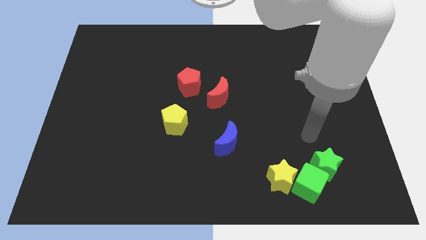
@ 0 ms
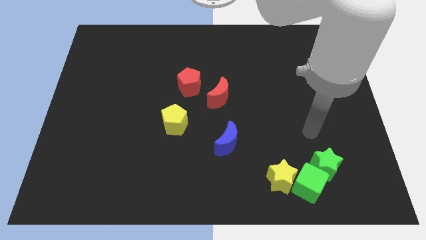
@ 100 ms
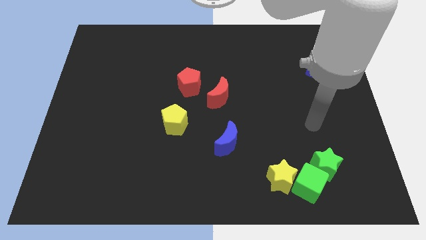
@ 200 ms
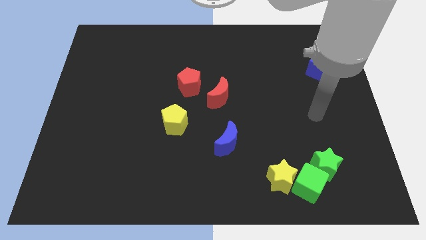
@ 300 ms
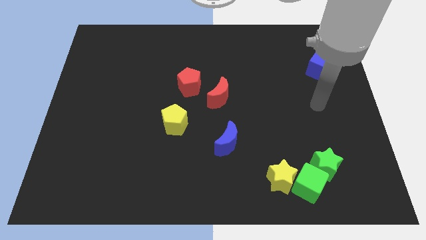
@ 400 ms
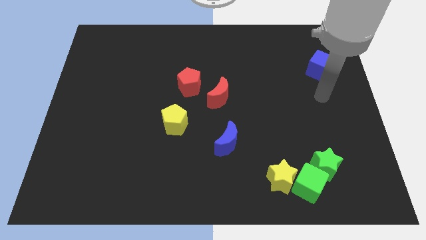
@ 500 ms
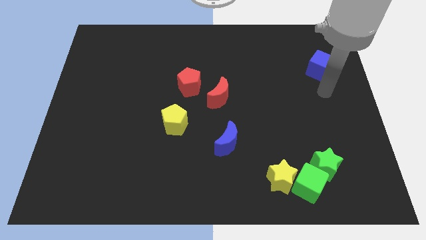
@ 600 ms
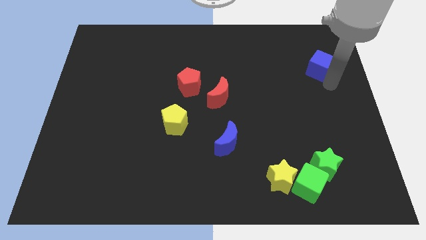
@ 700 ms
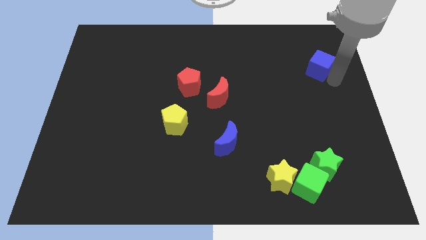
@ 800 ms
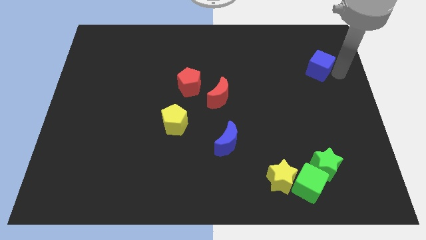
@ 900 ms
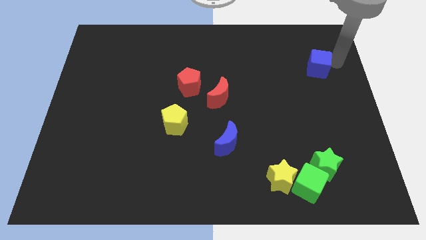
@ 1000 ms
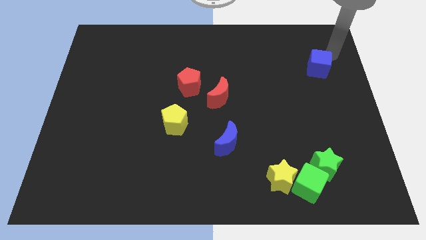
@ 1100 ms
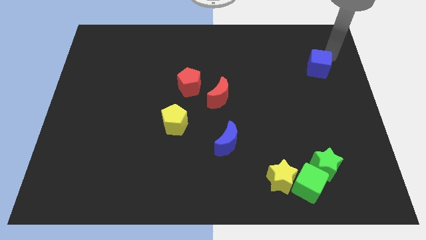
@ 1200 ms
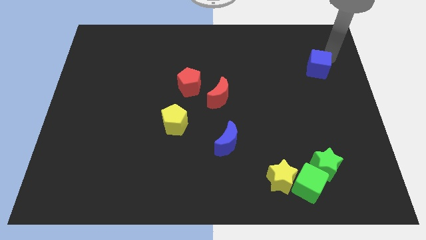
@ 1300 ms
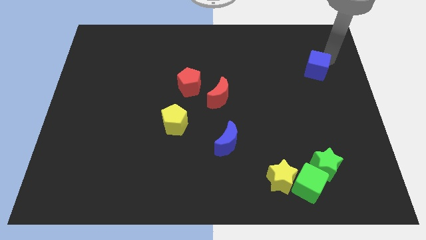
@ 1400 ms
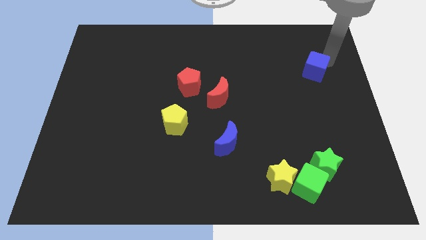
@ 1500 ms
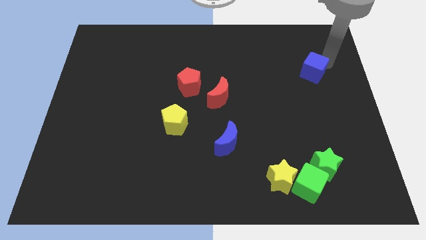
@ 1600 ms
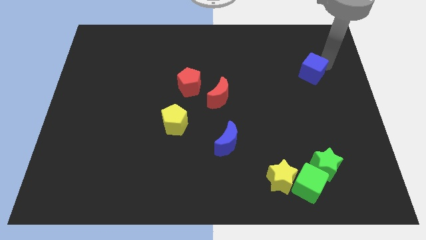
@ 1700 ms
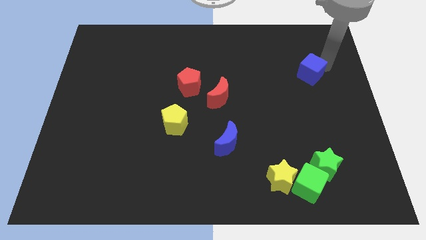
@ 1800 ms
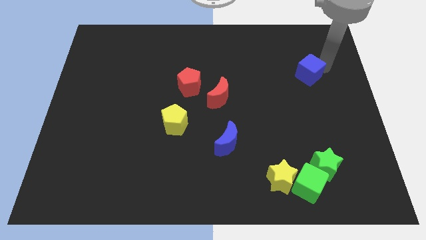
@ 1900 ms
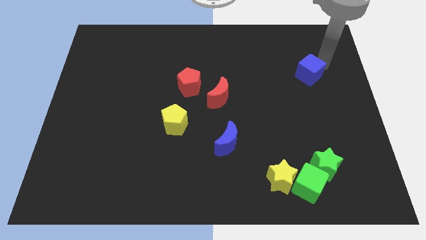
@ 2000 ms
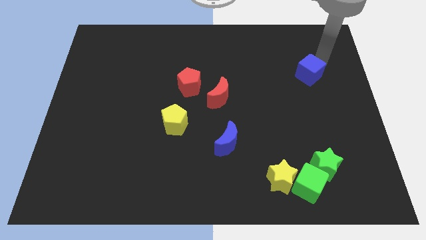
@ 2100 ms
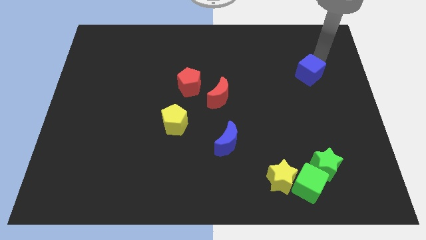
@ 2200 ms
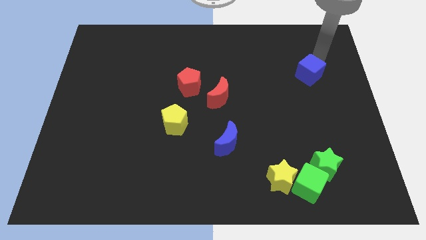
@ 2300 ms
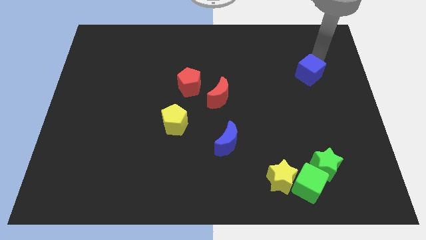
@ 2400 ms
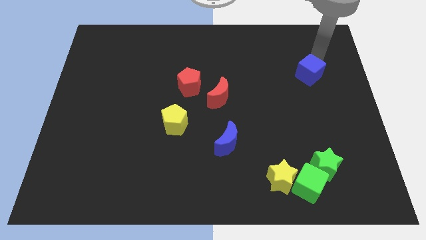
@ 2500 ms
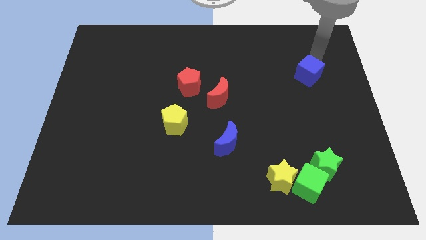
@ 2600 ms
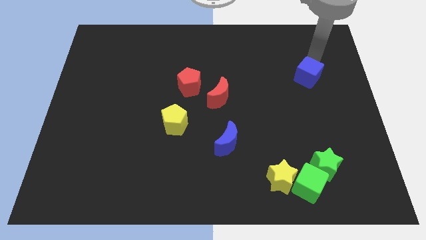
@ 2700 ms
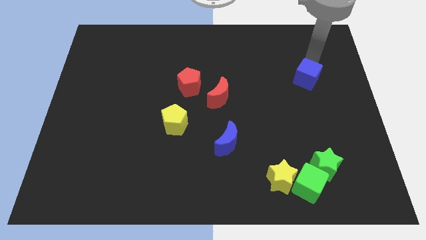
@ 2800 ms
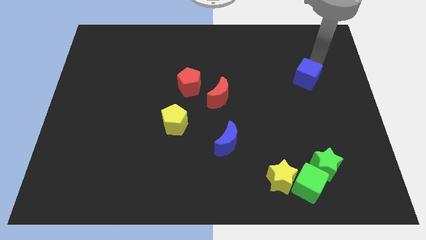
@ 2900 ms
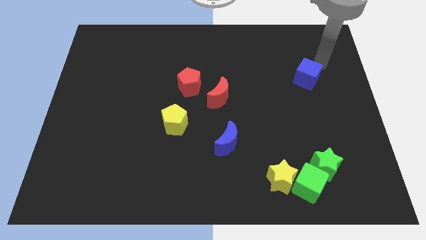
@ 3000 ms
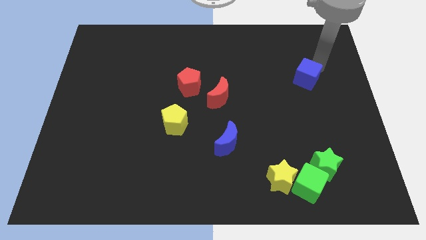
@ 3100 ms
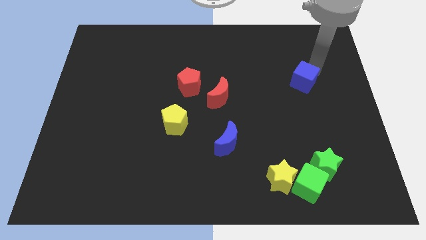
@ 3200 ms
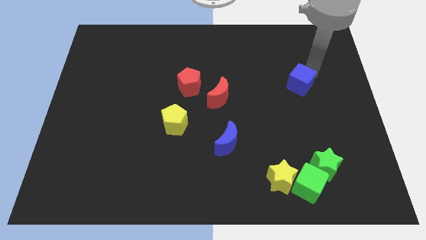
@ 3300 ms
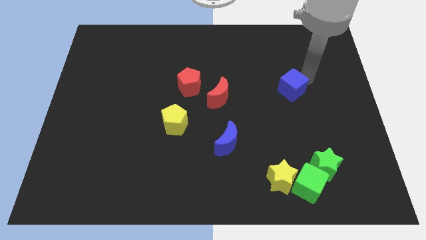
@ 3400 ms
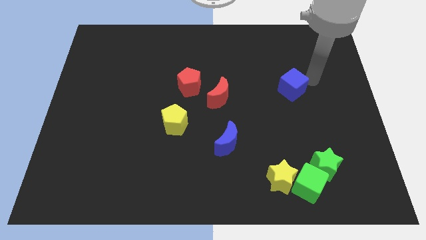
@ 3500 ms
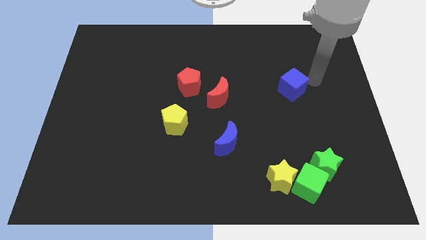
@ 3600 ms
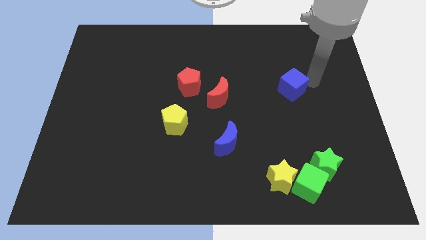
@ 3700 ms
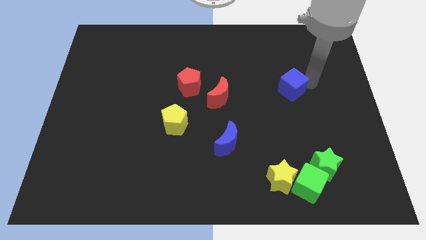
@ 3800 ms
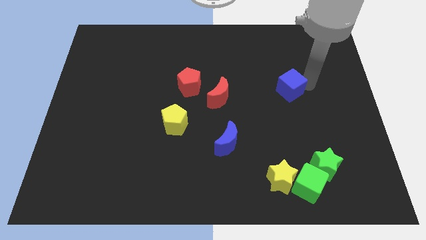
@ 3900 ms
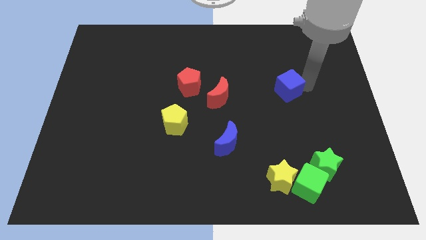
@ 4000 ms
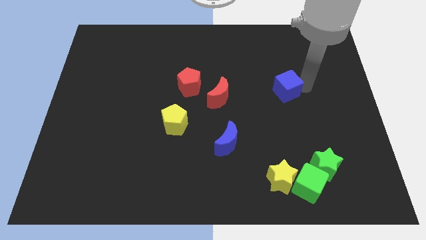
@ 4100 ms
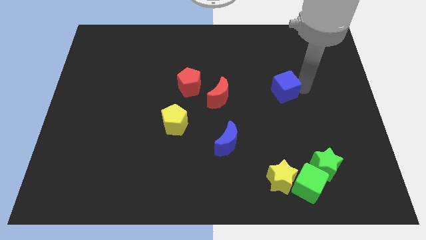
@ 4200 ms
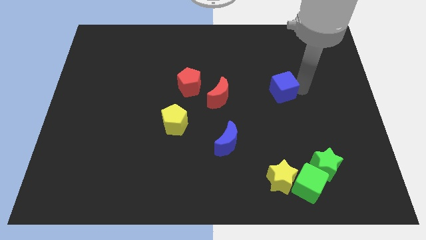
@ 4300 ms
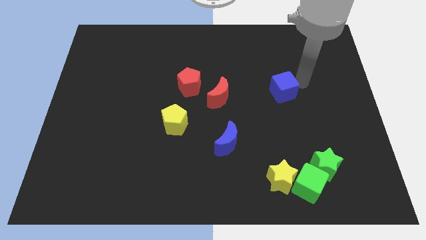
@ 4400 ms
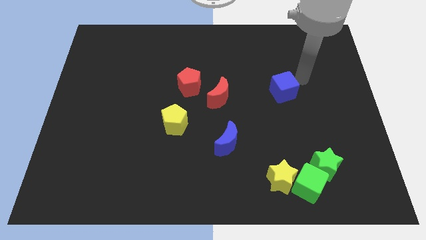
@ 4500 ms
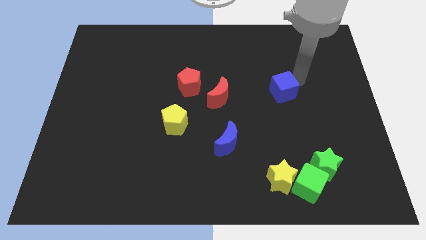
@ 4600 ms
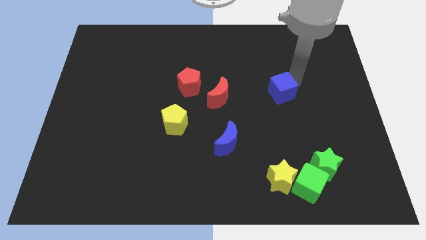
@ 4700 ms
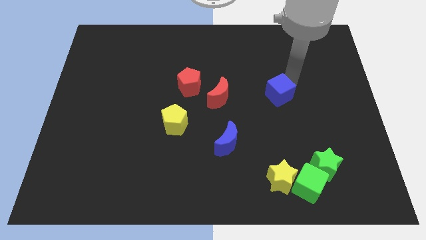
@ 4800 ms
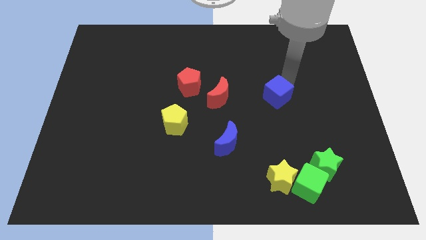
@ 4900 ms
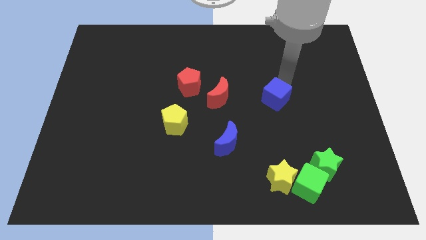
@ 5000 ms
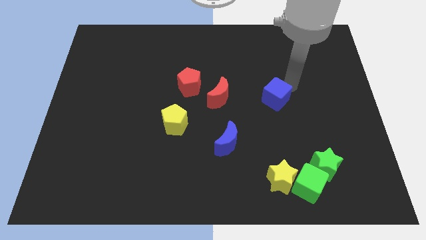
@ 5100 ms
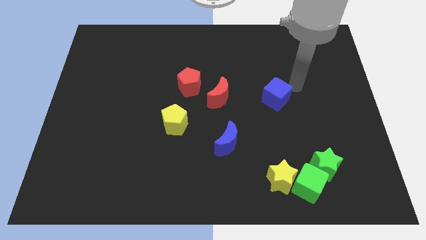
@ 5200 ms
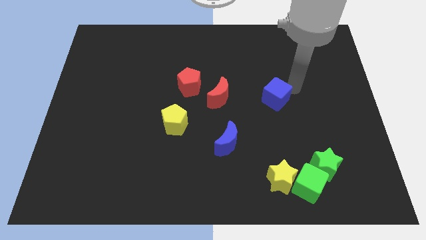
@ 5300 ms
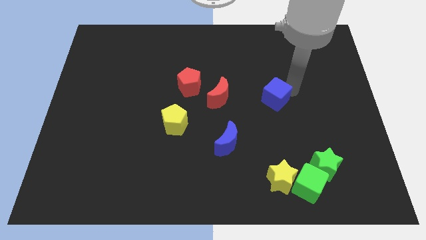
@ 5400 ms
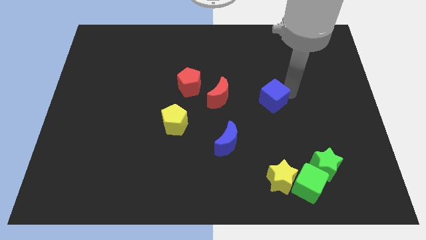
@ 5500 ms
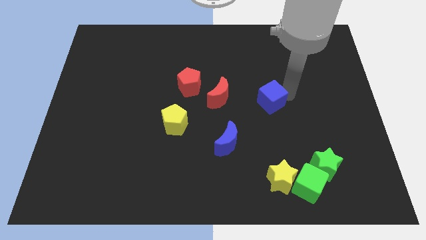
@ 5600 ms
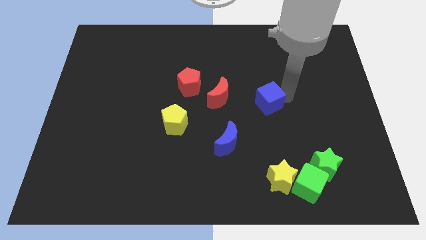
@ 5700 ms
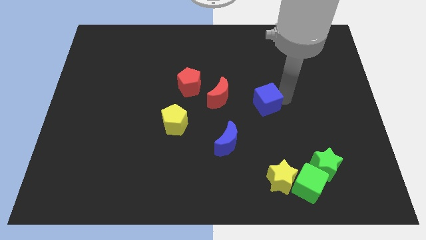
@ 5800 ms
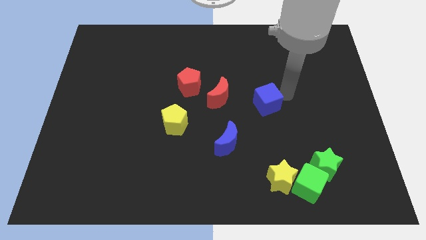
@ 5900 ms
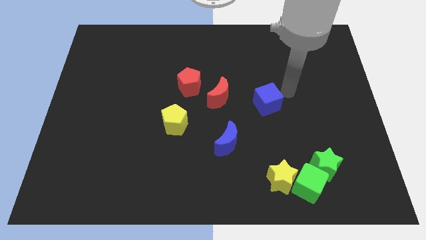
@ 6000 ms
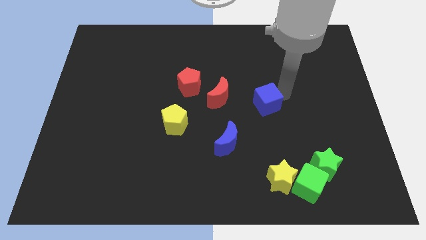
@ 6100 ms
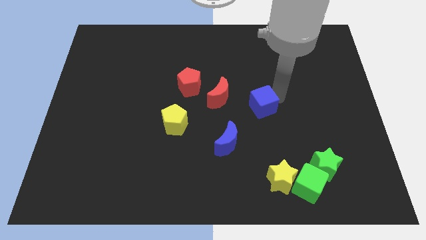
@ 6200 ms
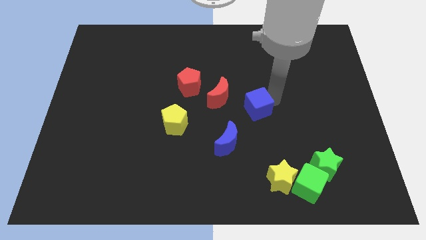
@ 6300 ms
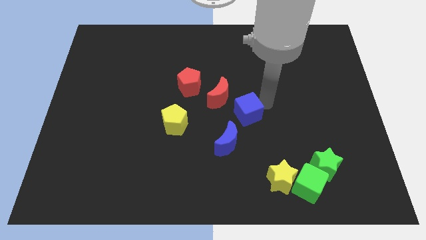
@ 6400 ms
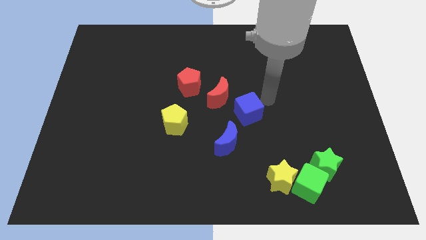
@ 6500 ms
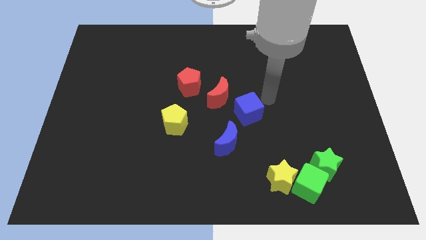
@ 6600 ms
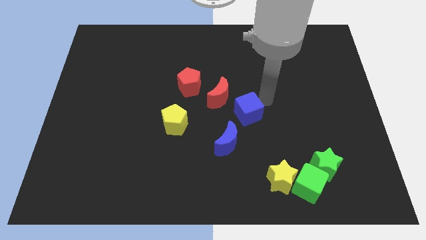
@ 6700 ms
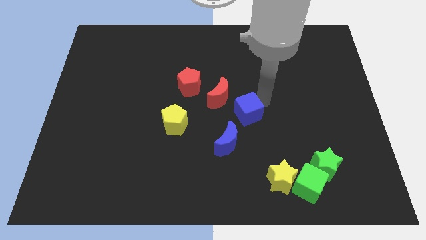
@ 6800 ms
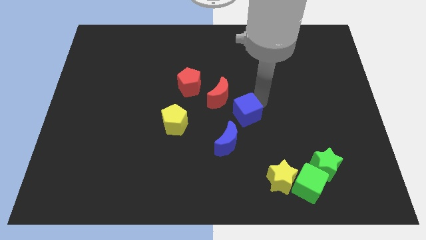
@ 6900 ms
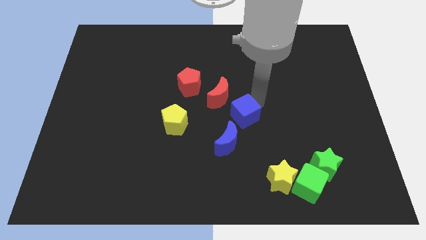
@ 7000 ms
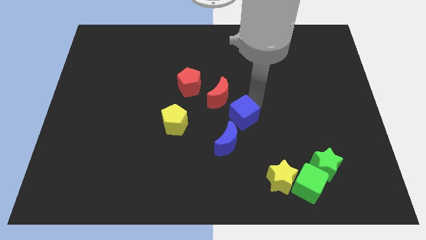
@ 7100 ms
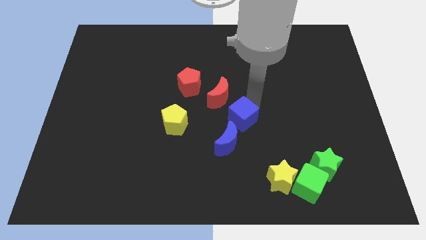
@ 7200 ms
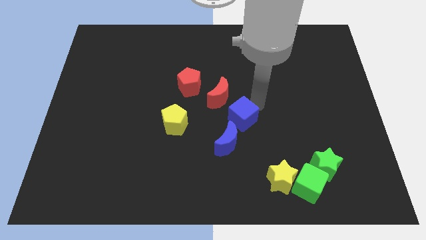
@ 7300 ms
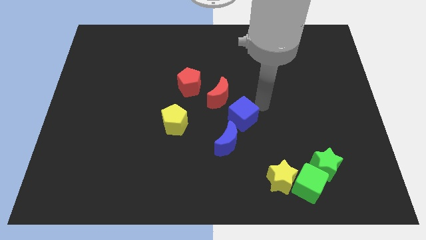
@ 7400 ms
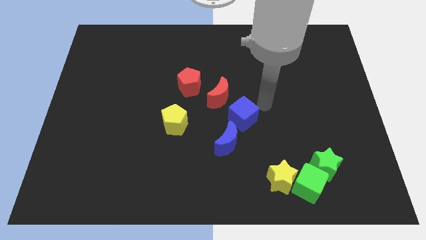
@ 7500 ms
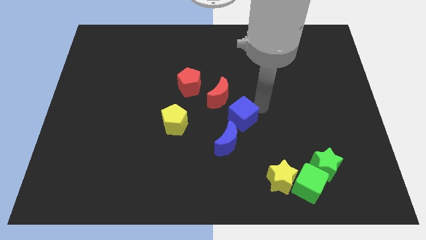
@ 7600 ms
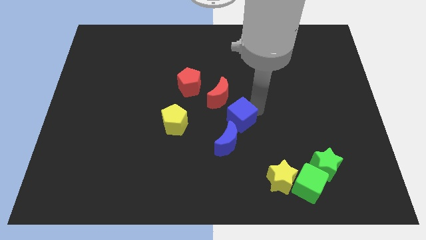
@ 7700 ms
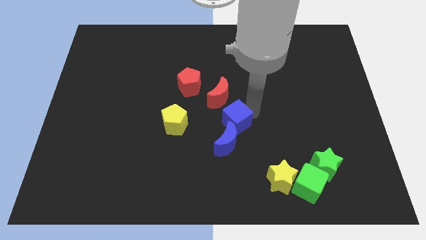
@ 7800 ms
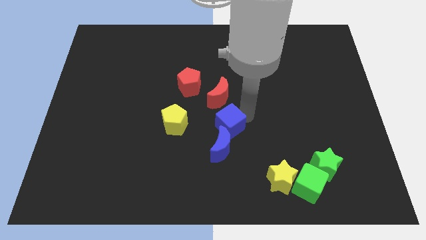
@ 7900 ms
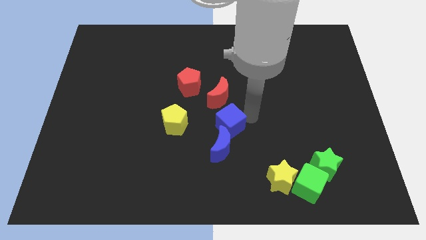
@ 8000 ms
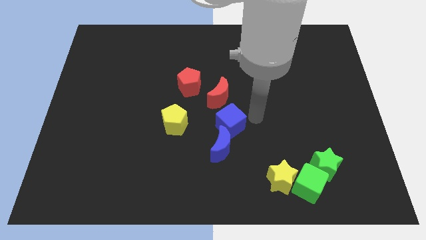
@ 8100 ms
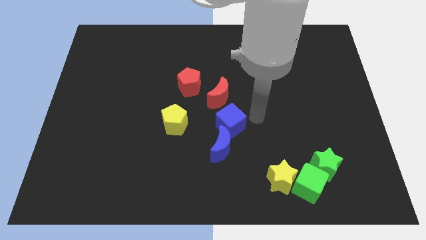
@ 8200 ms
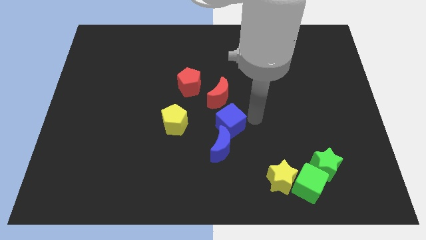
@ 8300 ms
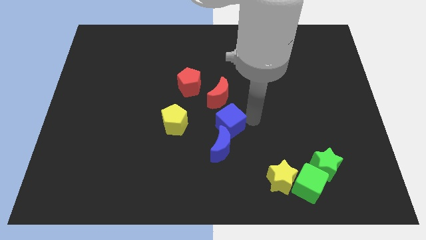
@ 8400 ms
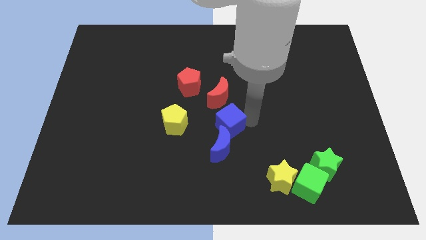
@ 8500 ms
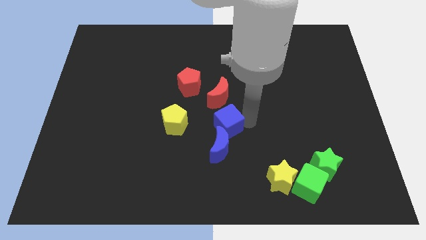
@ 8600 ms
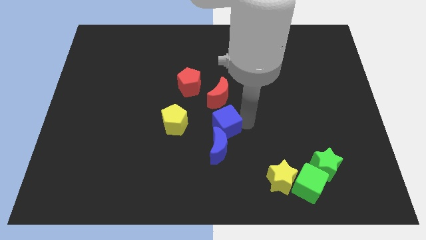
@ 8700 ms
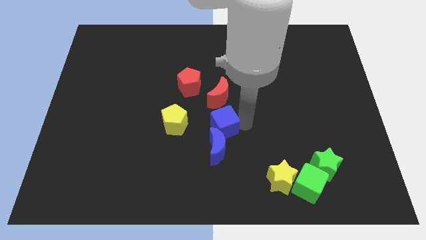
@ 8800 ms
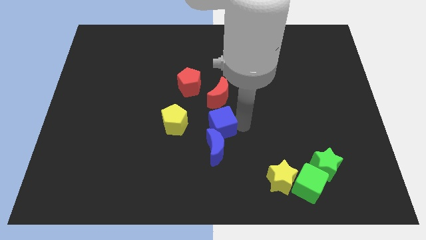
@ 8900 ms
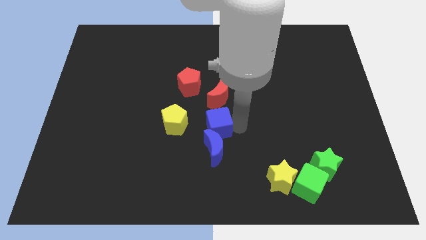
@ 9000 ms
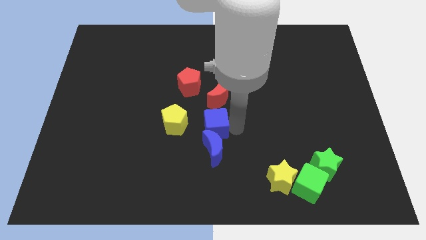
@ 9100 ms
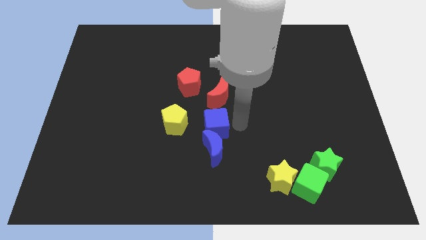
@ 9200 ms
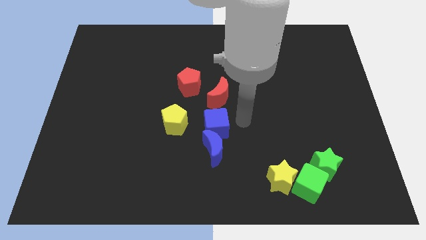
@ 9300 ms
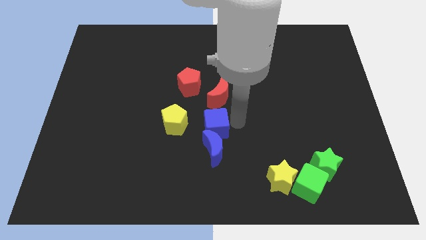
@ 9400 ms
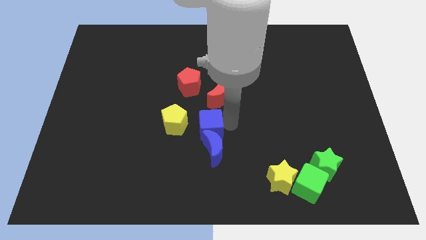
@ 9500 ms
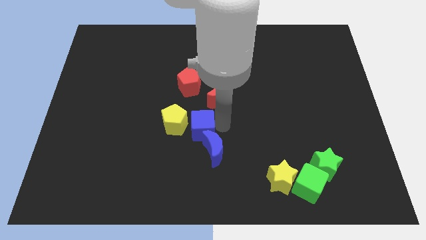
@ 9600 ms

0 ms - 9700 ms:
put the blue cube to the bottom side of the red pentagon
